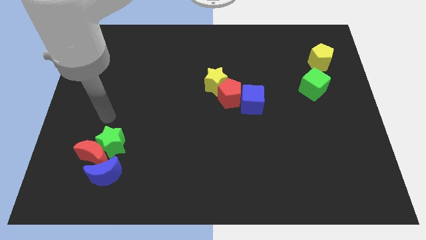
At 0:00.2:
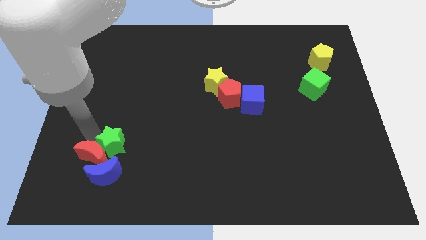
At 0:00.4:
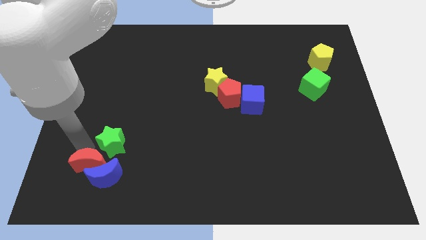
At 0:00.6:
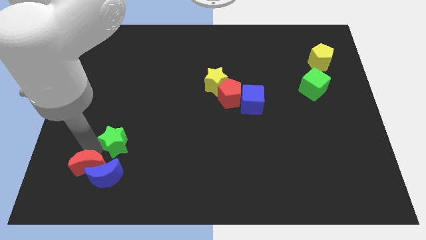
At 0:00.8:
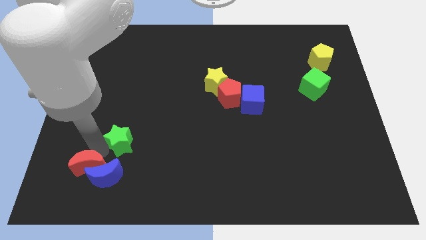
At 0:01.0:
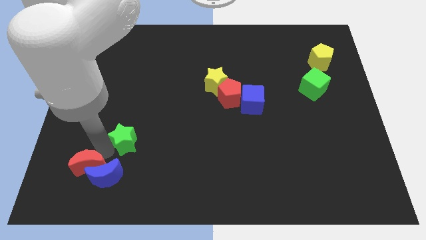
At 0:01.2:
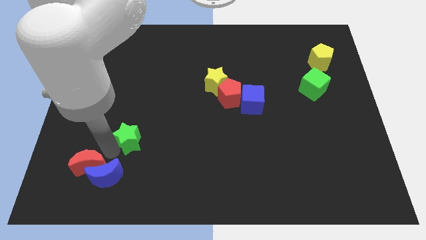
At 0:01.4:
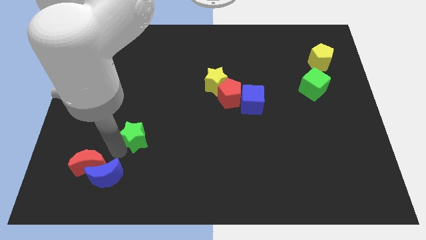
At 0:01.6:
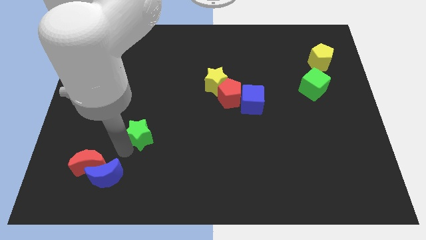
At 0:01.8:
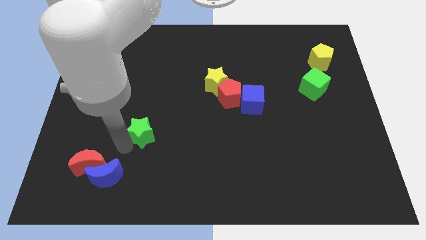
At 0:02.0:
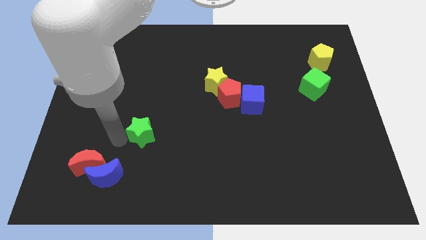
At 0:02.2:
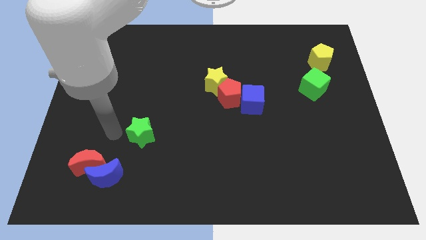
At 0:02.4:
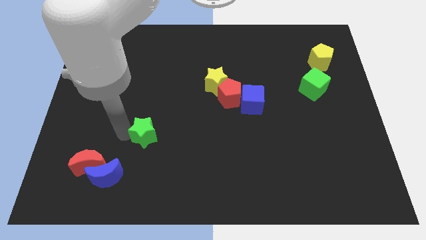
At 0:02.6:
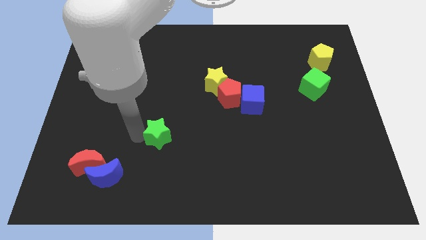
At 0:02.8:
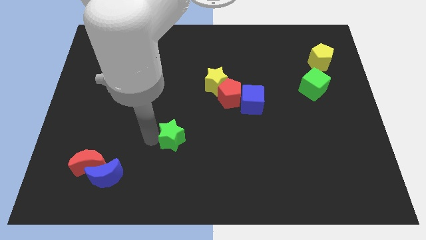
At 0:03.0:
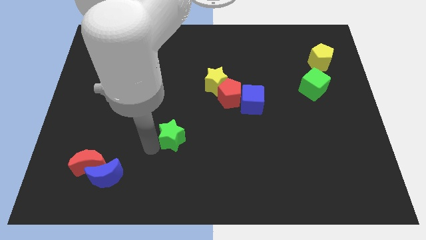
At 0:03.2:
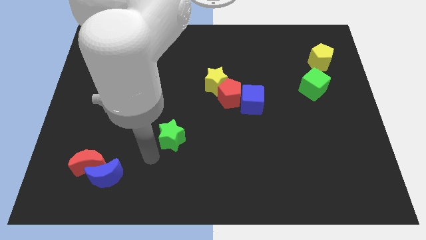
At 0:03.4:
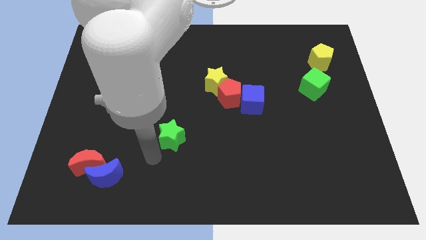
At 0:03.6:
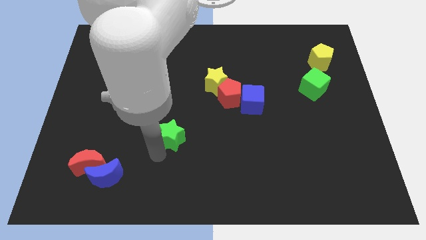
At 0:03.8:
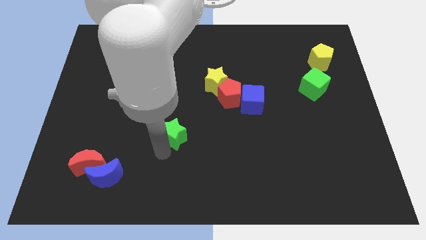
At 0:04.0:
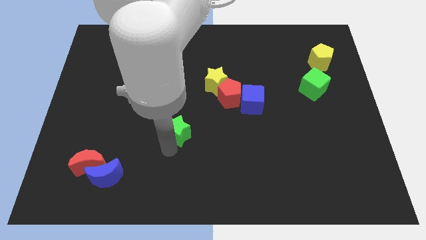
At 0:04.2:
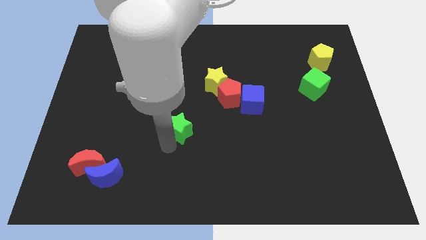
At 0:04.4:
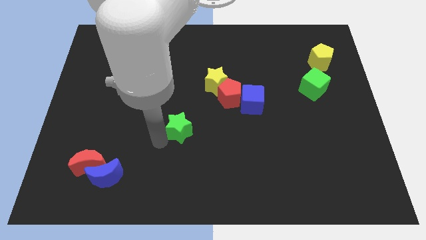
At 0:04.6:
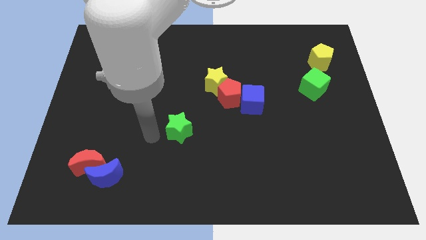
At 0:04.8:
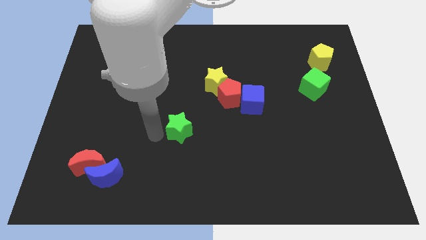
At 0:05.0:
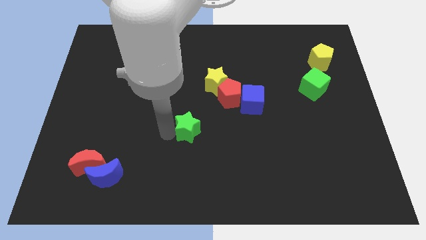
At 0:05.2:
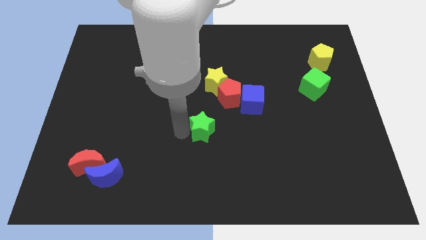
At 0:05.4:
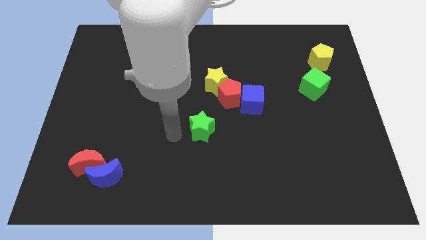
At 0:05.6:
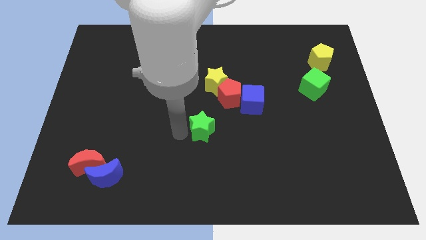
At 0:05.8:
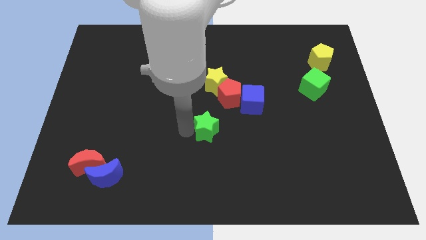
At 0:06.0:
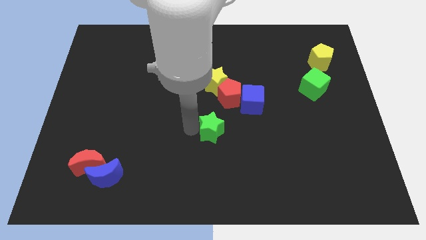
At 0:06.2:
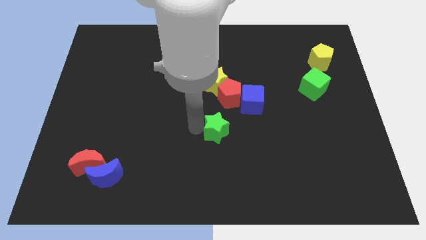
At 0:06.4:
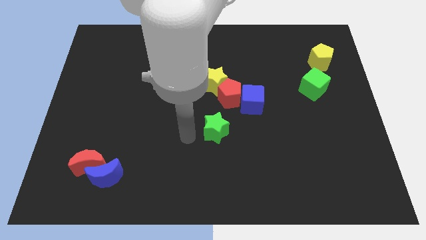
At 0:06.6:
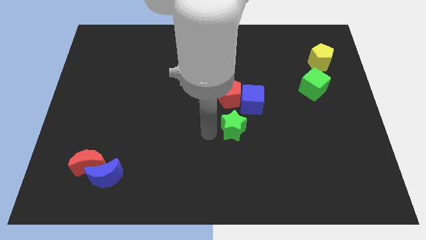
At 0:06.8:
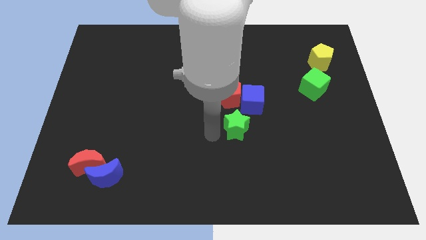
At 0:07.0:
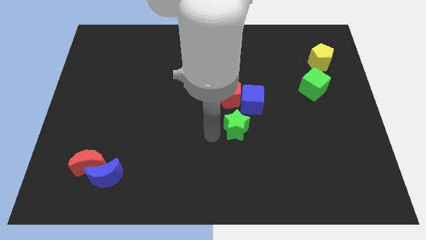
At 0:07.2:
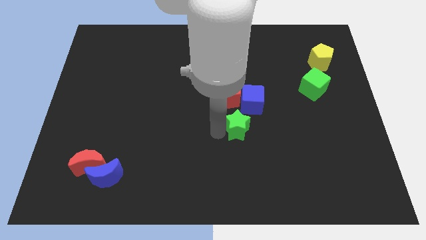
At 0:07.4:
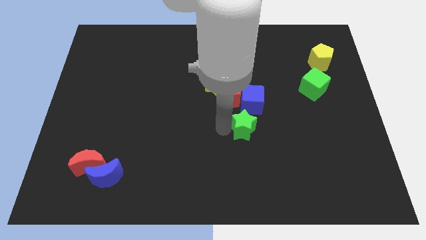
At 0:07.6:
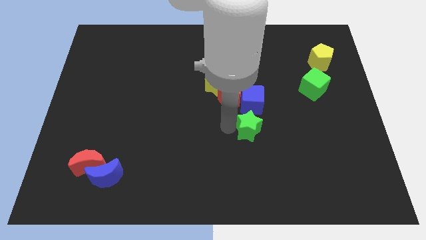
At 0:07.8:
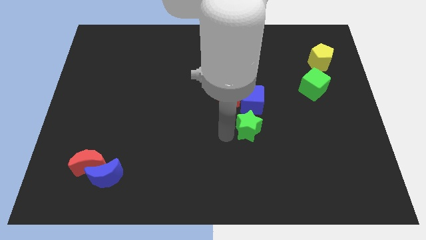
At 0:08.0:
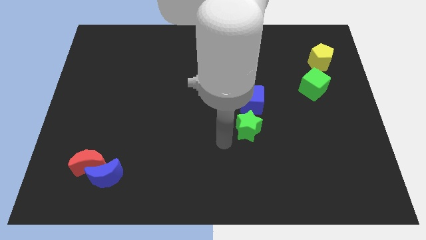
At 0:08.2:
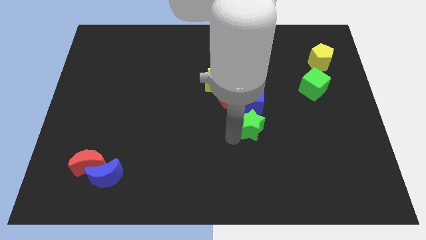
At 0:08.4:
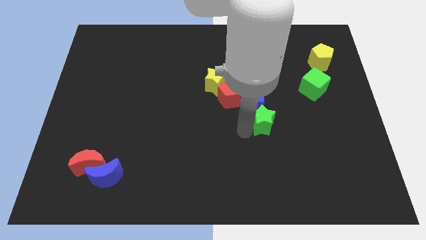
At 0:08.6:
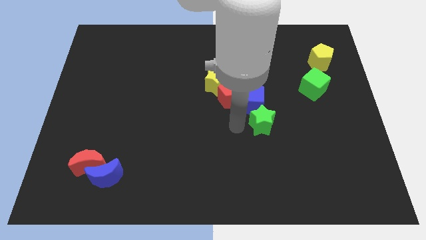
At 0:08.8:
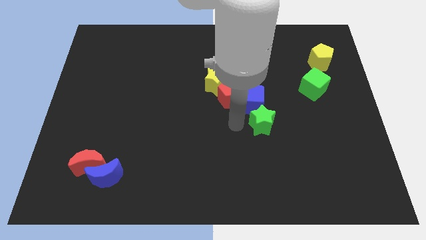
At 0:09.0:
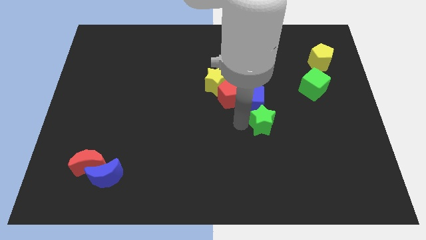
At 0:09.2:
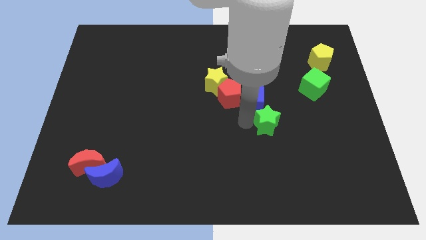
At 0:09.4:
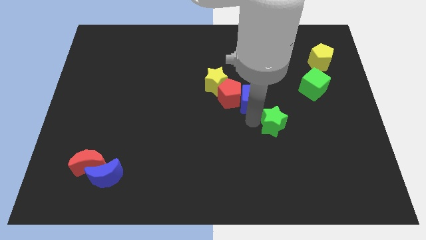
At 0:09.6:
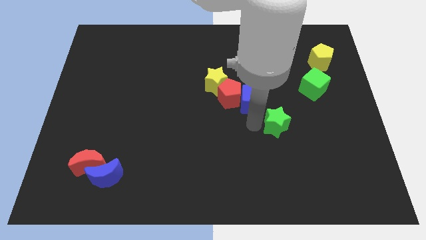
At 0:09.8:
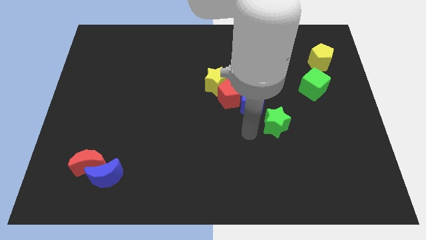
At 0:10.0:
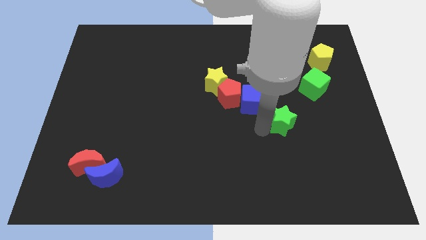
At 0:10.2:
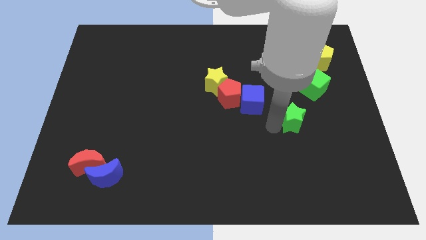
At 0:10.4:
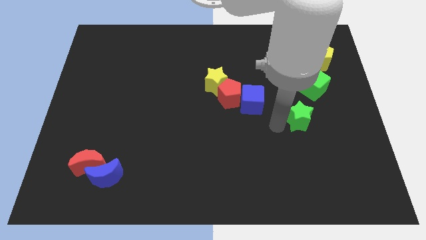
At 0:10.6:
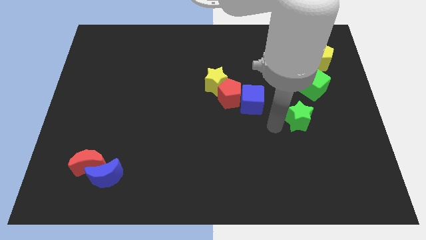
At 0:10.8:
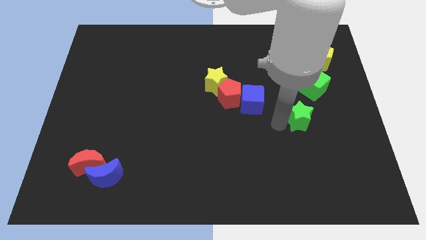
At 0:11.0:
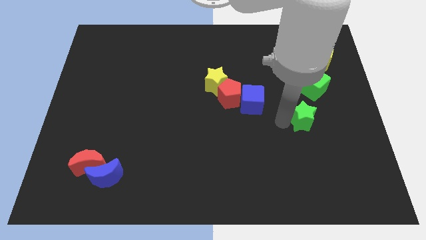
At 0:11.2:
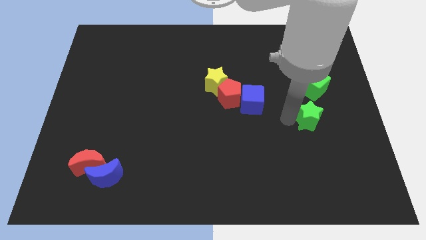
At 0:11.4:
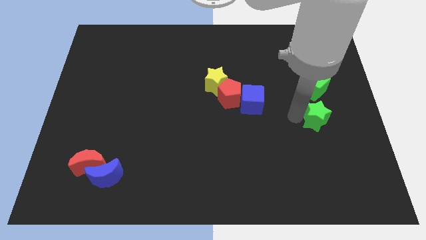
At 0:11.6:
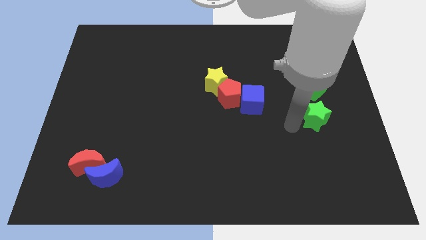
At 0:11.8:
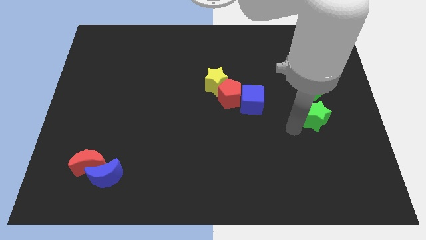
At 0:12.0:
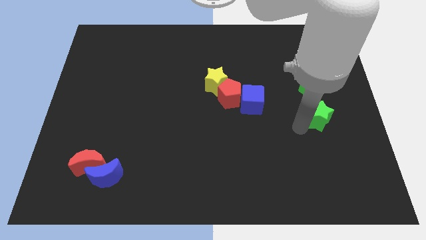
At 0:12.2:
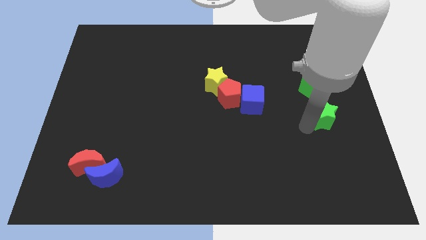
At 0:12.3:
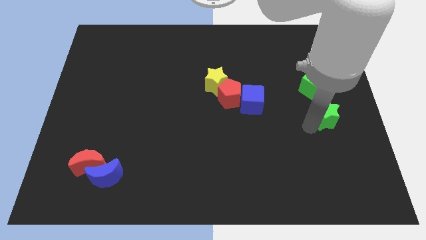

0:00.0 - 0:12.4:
push the green star to the right side
